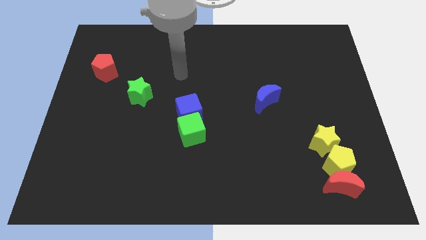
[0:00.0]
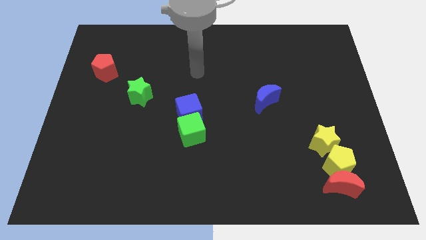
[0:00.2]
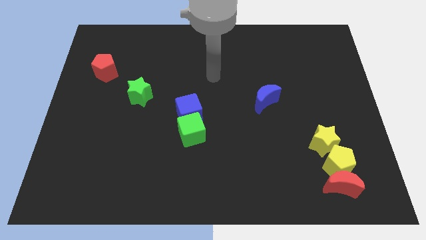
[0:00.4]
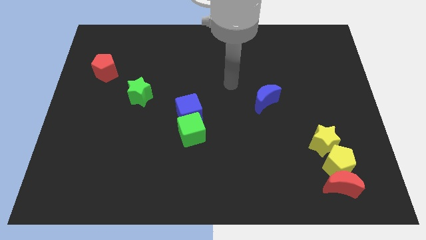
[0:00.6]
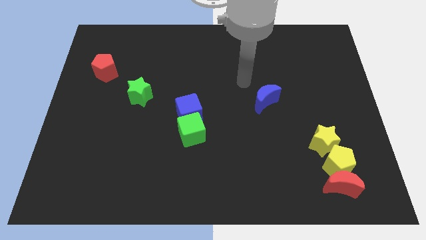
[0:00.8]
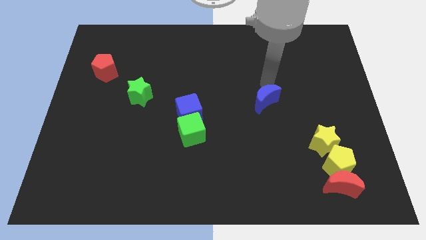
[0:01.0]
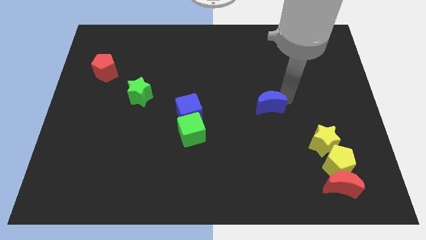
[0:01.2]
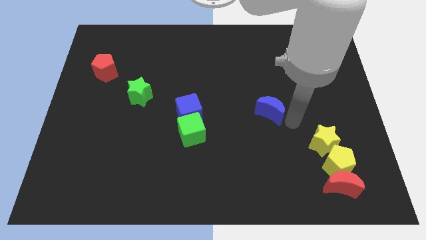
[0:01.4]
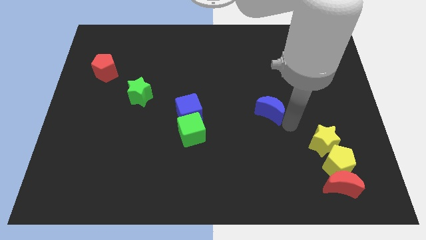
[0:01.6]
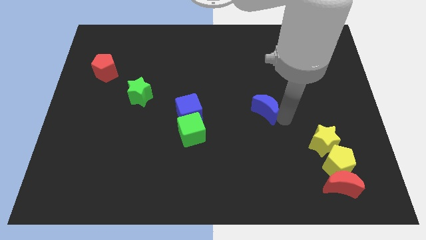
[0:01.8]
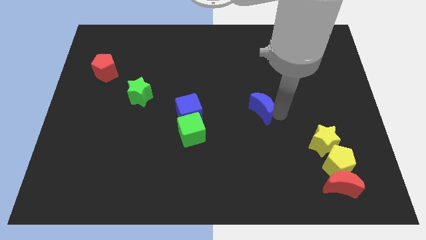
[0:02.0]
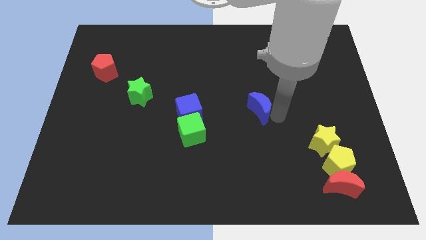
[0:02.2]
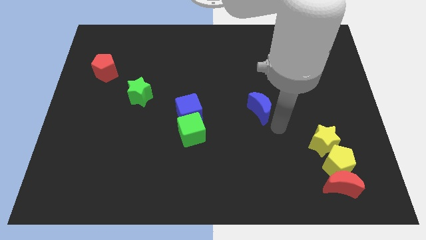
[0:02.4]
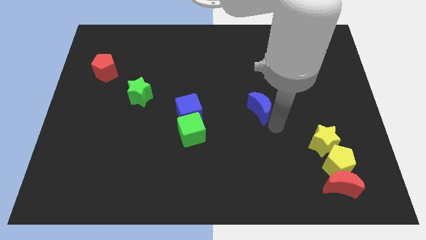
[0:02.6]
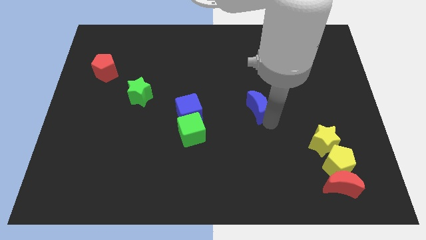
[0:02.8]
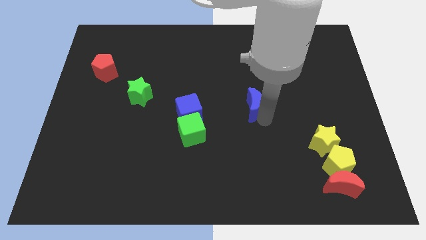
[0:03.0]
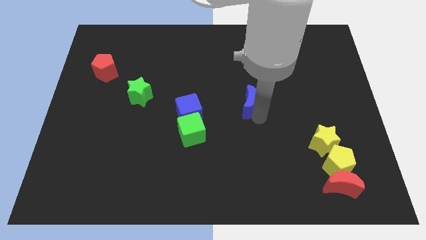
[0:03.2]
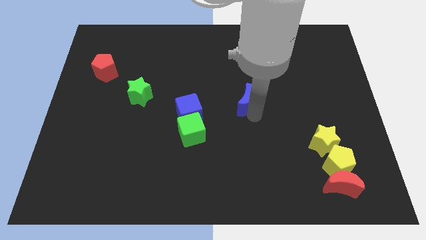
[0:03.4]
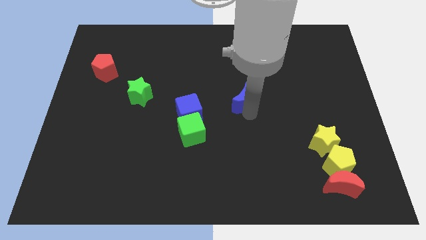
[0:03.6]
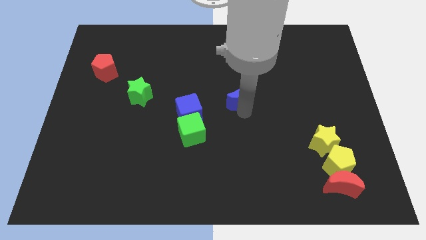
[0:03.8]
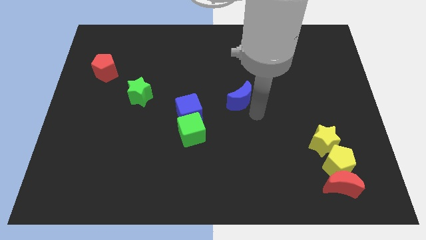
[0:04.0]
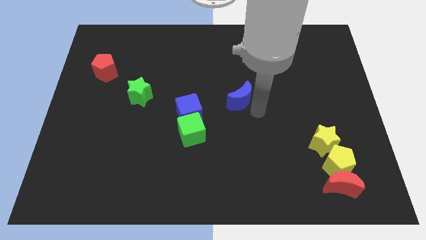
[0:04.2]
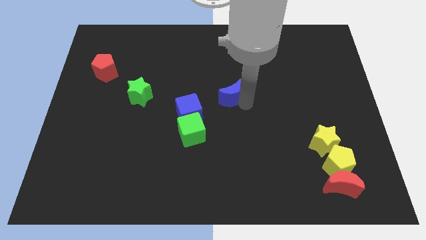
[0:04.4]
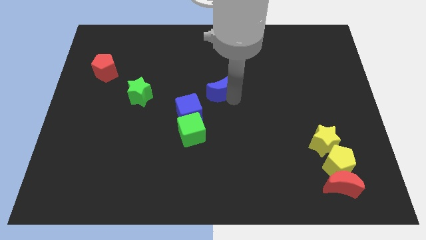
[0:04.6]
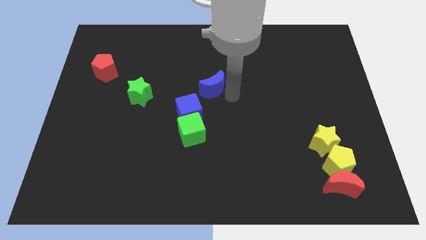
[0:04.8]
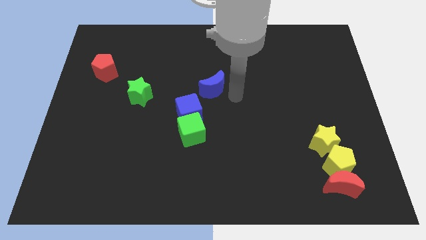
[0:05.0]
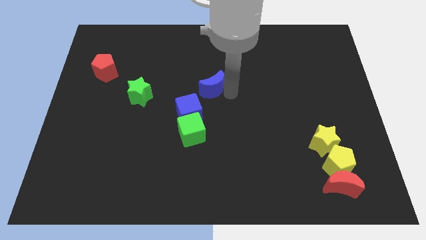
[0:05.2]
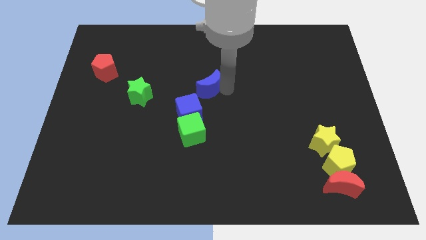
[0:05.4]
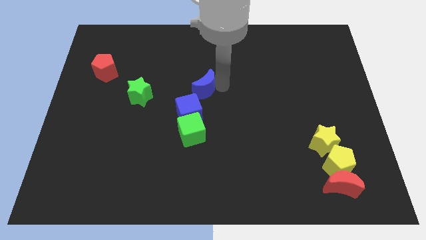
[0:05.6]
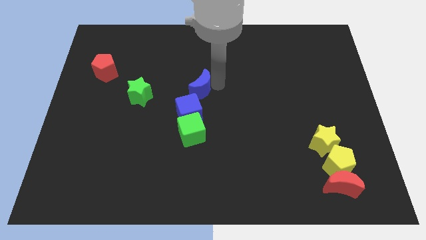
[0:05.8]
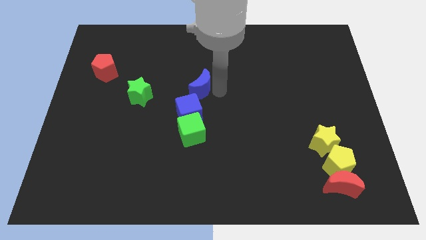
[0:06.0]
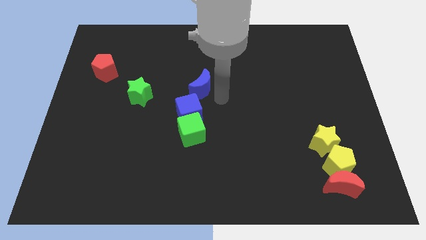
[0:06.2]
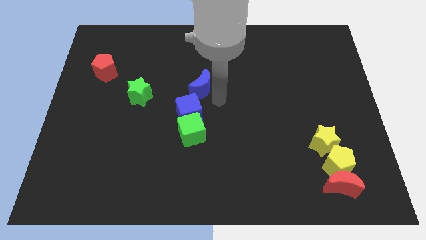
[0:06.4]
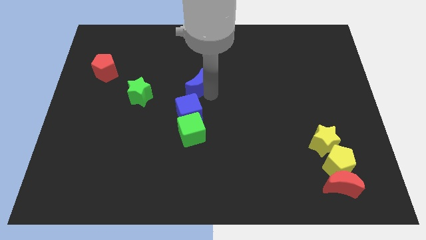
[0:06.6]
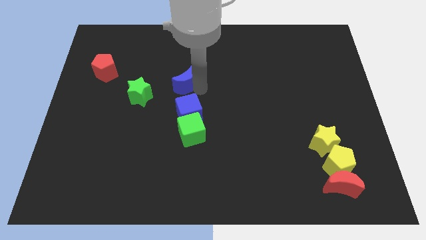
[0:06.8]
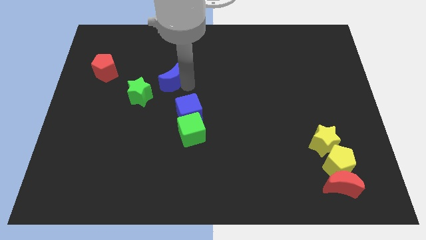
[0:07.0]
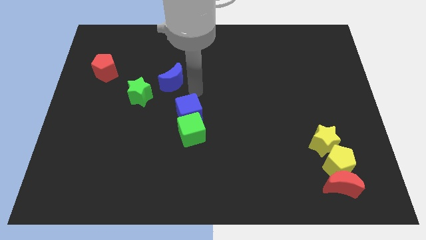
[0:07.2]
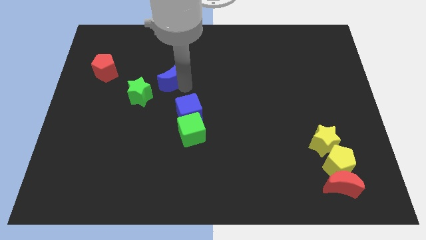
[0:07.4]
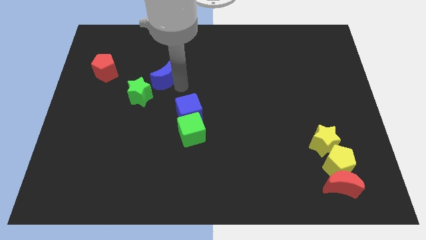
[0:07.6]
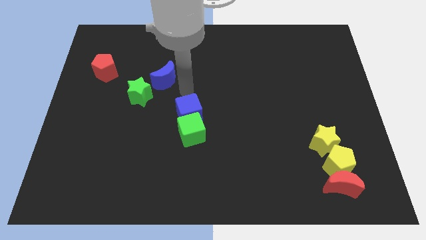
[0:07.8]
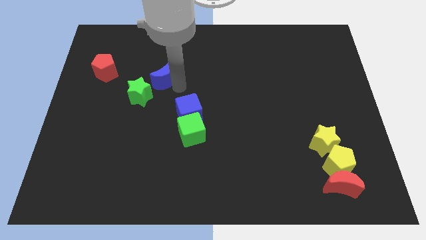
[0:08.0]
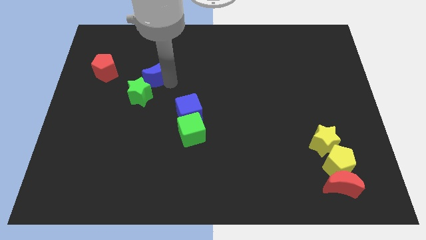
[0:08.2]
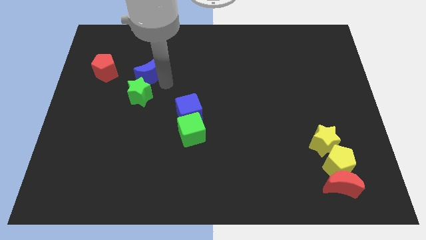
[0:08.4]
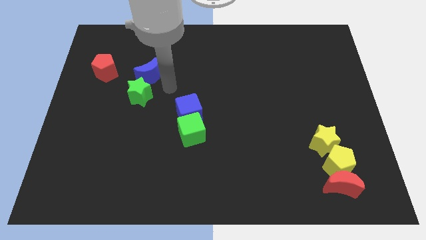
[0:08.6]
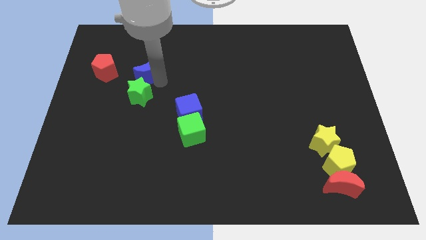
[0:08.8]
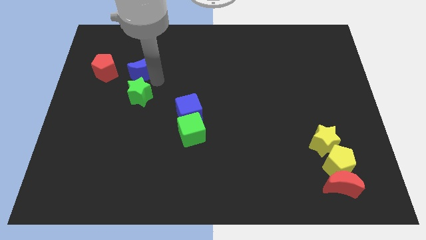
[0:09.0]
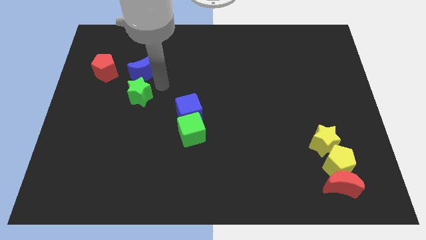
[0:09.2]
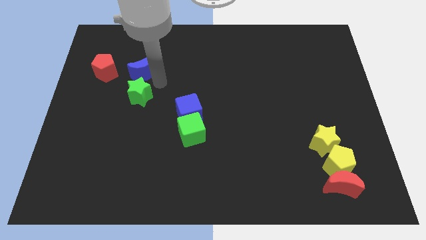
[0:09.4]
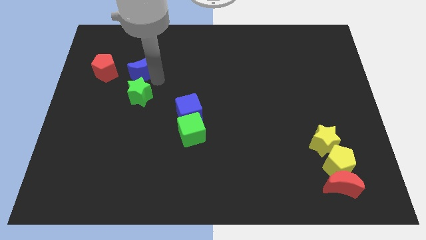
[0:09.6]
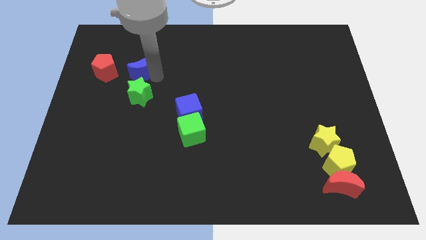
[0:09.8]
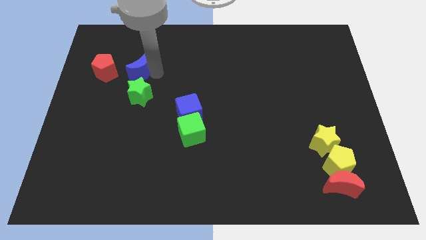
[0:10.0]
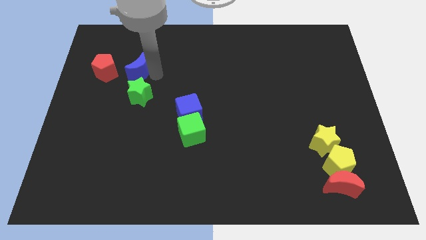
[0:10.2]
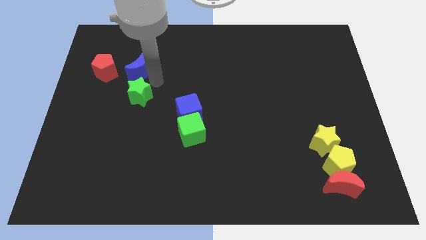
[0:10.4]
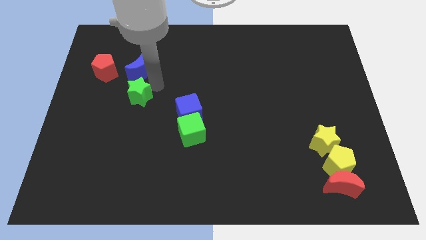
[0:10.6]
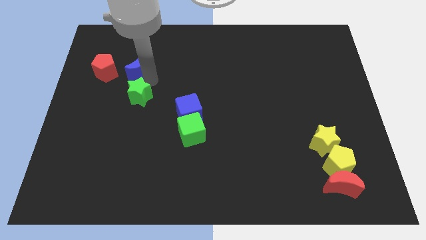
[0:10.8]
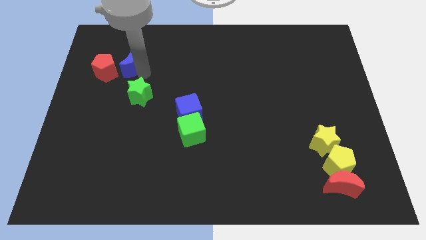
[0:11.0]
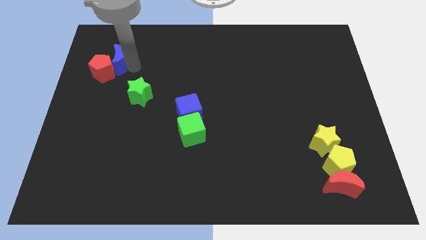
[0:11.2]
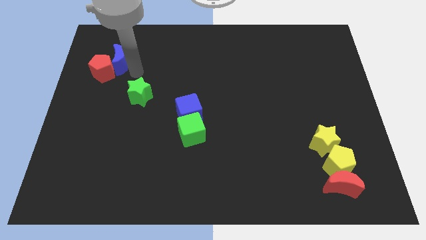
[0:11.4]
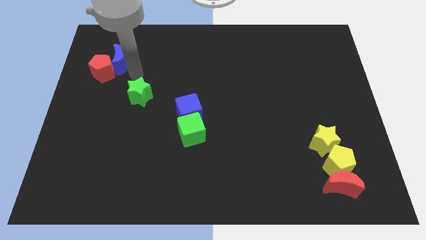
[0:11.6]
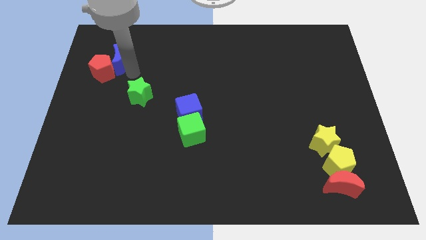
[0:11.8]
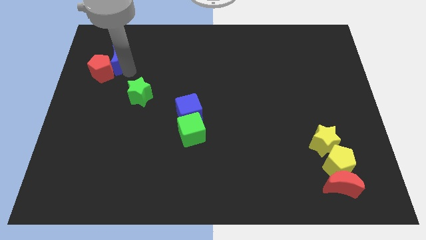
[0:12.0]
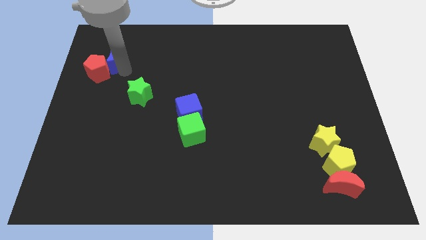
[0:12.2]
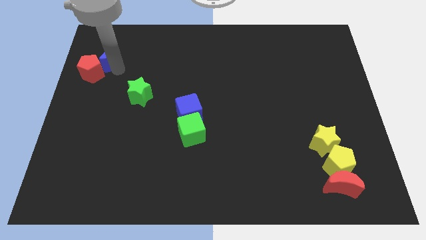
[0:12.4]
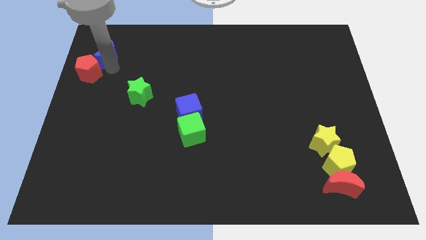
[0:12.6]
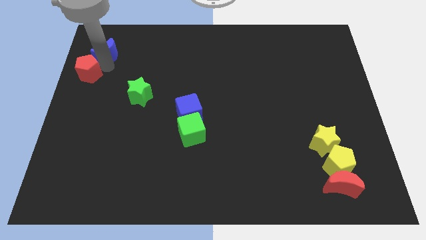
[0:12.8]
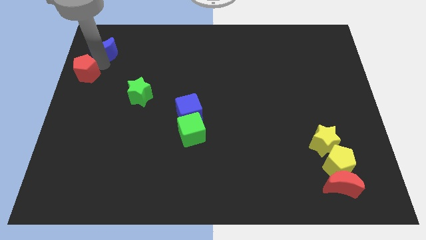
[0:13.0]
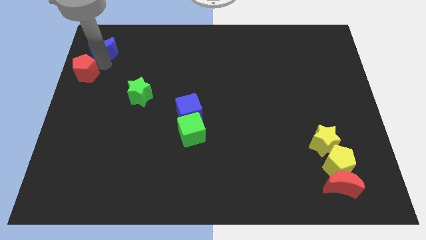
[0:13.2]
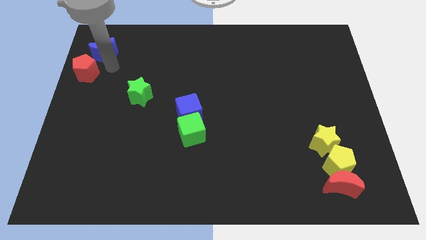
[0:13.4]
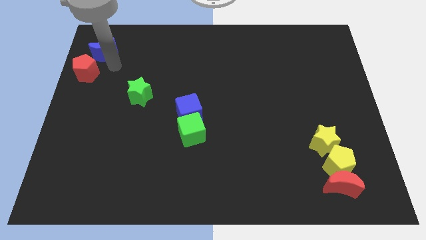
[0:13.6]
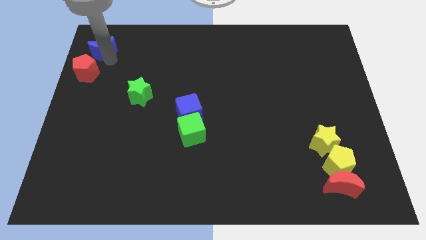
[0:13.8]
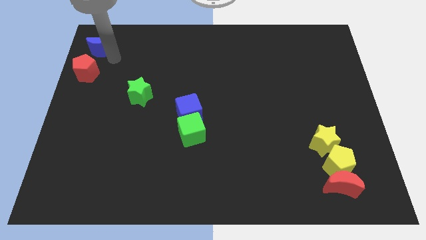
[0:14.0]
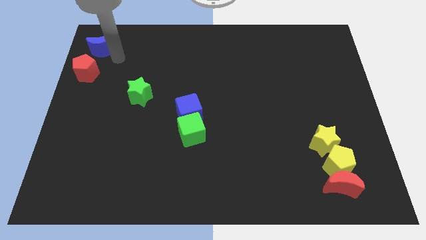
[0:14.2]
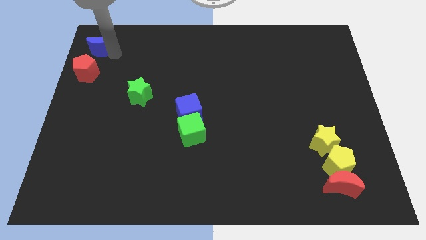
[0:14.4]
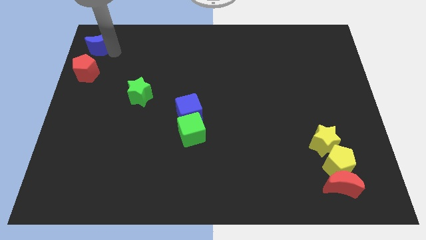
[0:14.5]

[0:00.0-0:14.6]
slide the blue moon to the top left of the board
